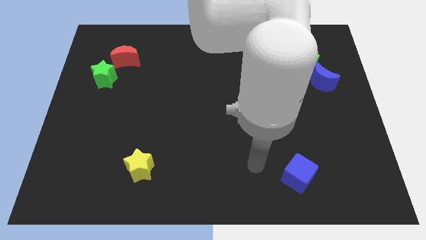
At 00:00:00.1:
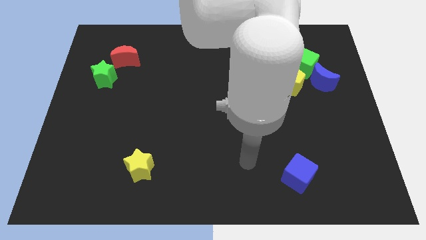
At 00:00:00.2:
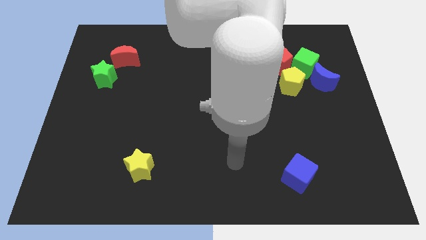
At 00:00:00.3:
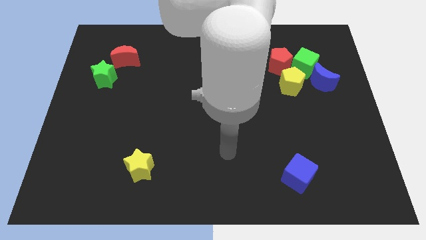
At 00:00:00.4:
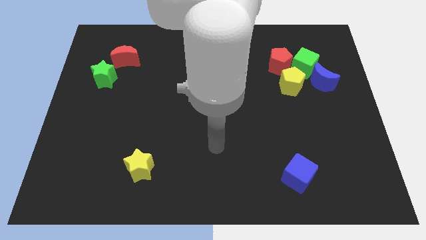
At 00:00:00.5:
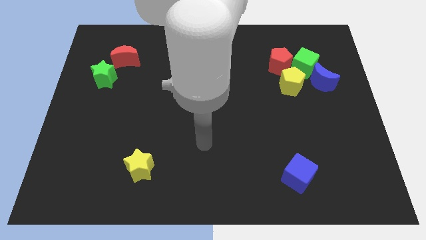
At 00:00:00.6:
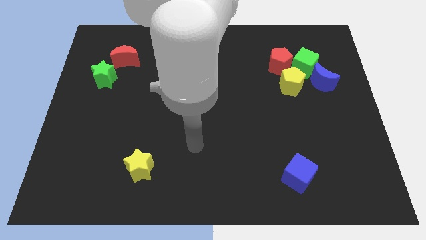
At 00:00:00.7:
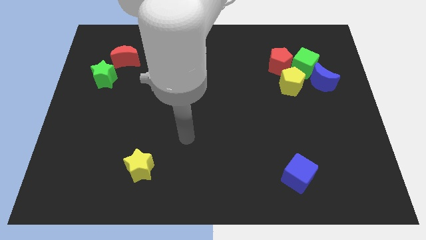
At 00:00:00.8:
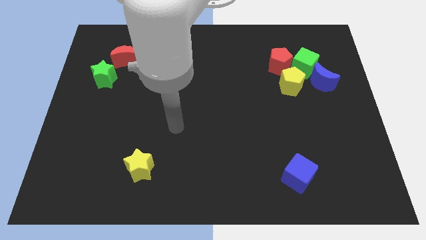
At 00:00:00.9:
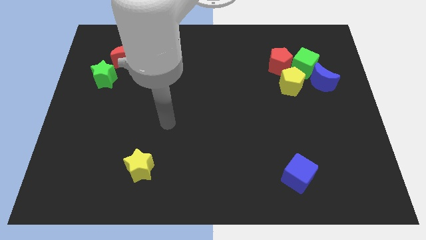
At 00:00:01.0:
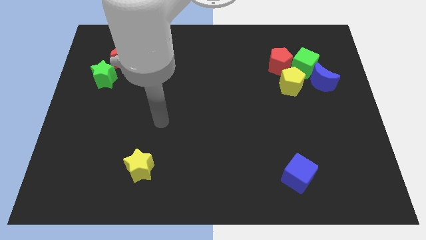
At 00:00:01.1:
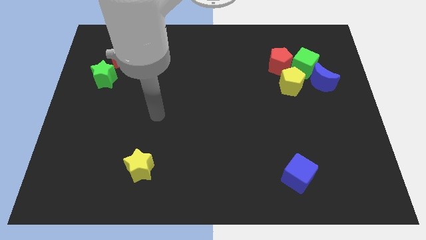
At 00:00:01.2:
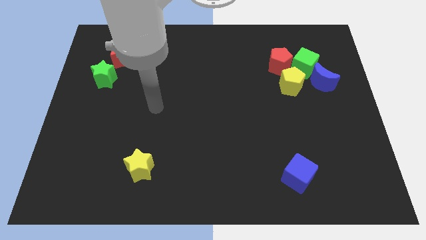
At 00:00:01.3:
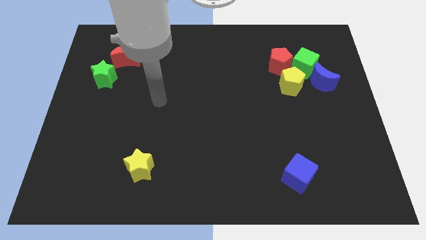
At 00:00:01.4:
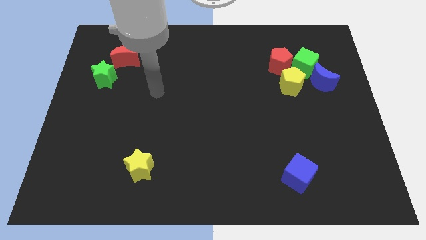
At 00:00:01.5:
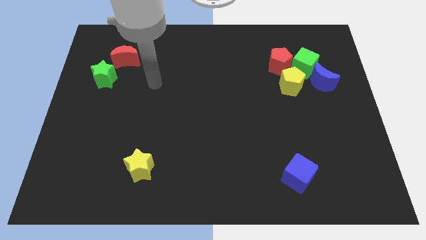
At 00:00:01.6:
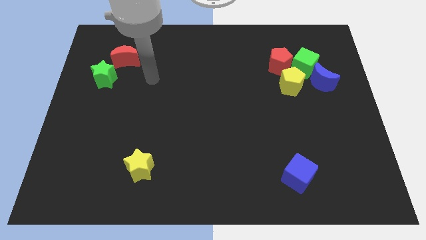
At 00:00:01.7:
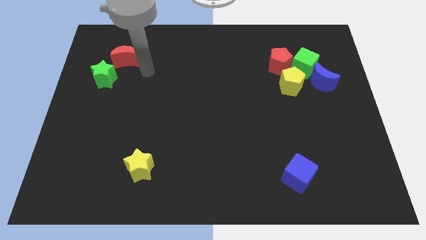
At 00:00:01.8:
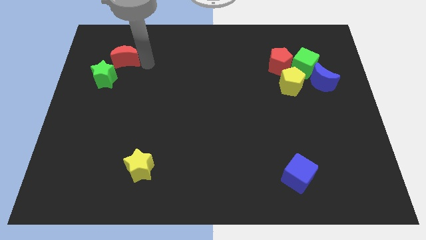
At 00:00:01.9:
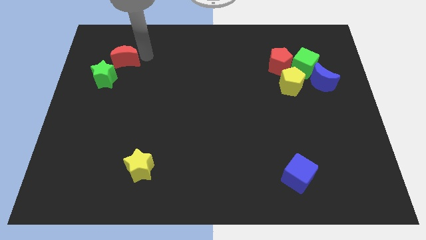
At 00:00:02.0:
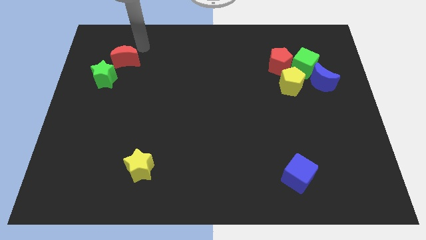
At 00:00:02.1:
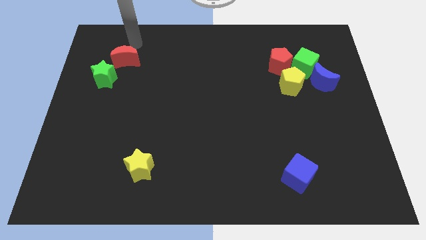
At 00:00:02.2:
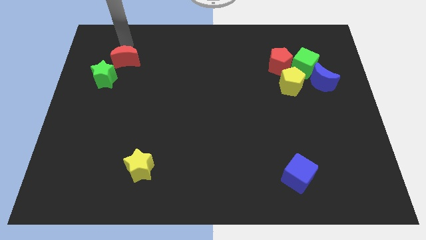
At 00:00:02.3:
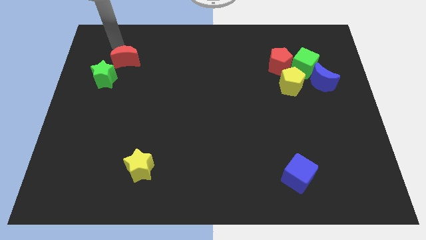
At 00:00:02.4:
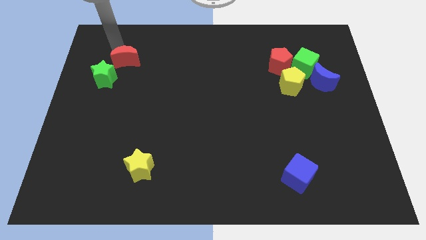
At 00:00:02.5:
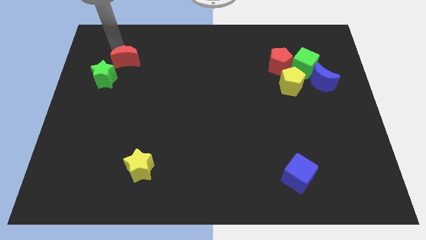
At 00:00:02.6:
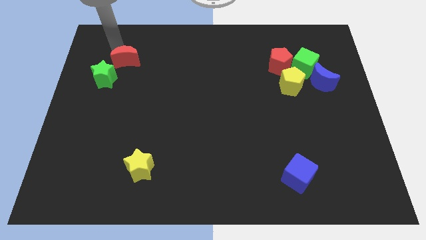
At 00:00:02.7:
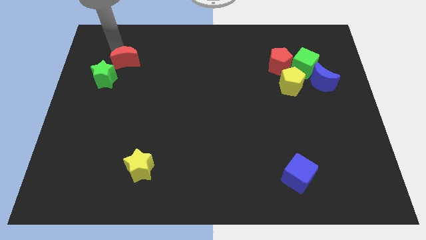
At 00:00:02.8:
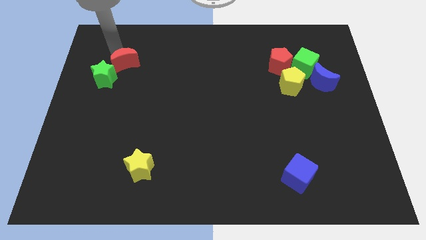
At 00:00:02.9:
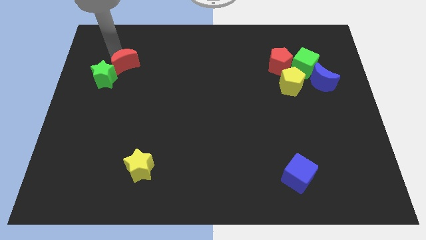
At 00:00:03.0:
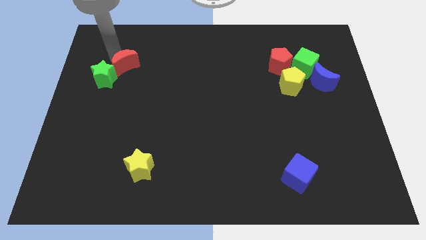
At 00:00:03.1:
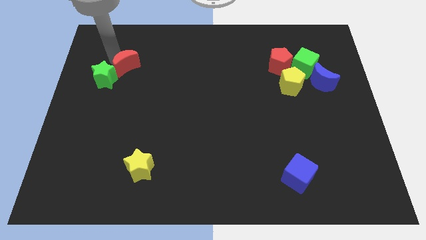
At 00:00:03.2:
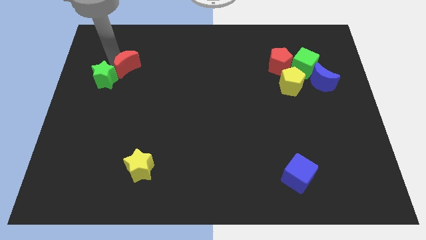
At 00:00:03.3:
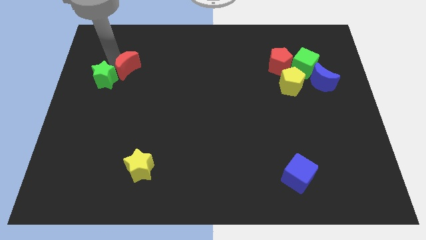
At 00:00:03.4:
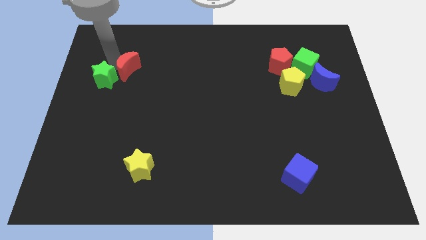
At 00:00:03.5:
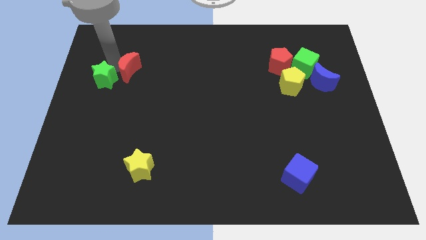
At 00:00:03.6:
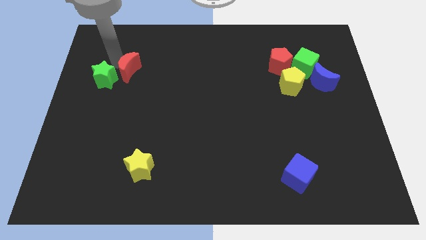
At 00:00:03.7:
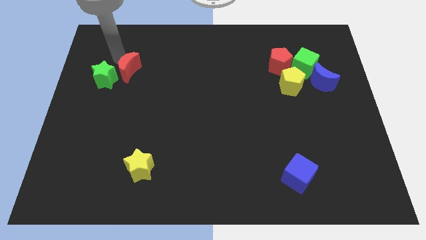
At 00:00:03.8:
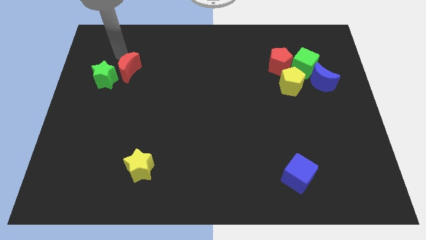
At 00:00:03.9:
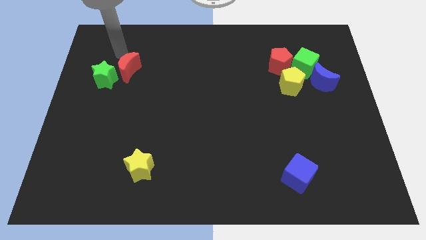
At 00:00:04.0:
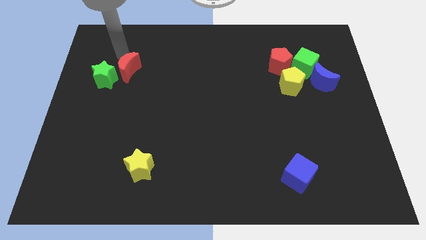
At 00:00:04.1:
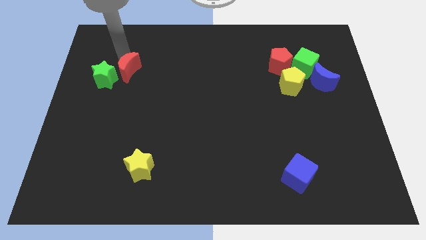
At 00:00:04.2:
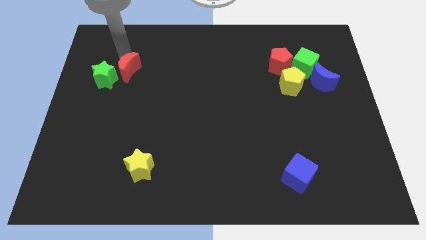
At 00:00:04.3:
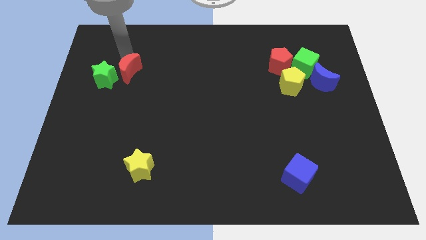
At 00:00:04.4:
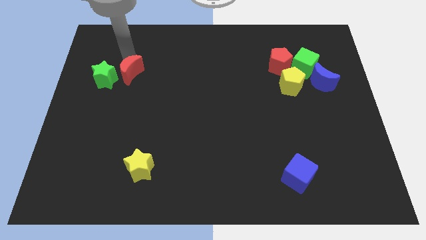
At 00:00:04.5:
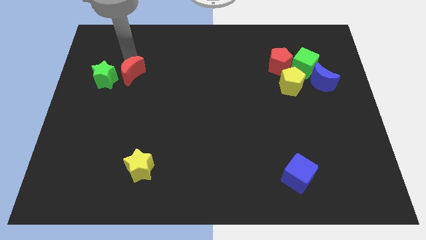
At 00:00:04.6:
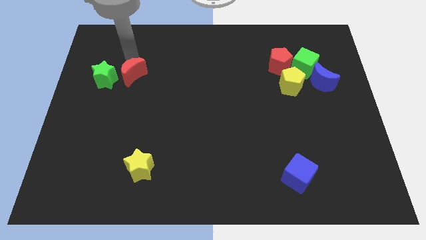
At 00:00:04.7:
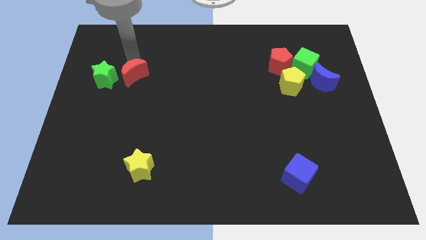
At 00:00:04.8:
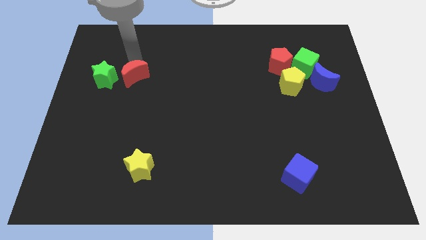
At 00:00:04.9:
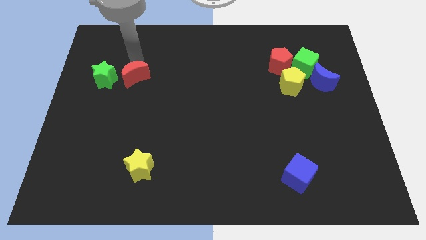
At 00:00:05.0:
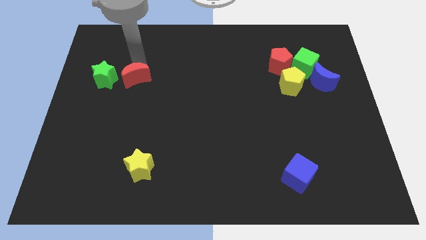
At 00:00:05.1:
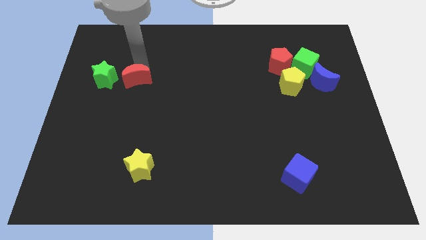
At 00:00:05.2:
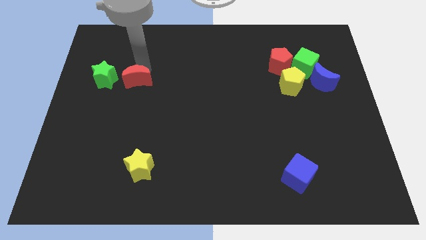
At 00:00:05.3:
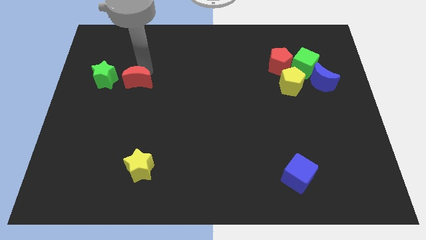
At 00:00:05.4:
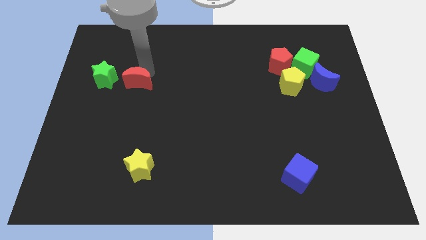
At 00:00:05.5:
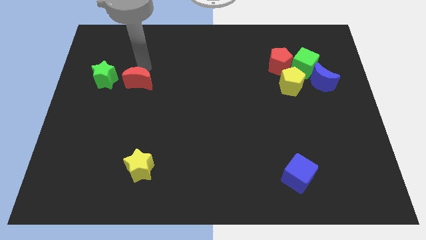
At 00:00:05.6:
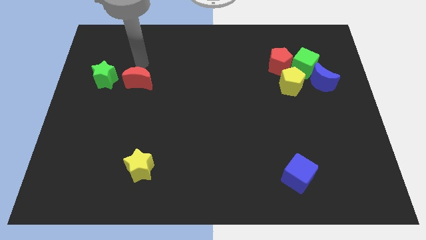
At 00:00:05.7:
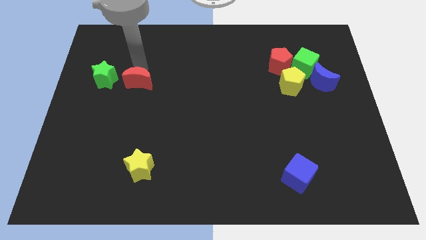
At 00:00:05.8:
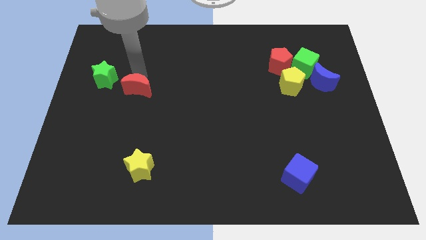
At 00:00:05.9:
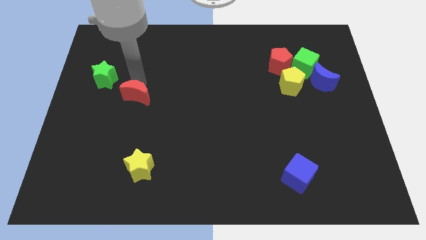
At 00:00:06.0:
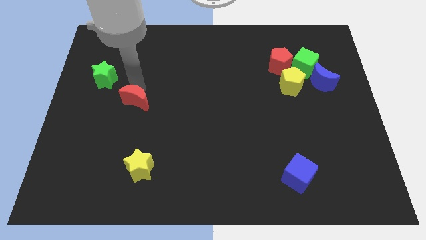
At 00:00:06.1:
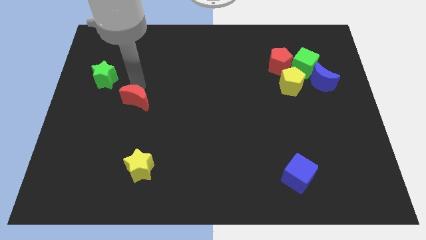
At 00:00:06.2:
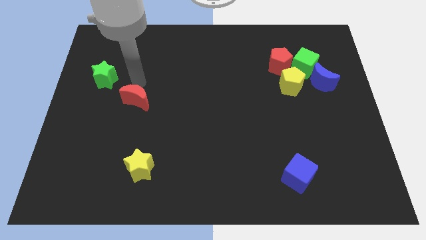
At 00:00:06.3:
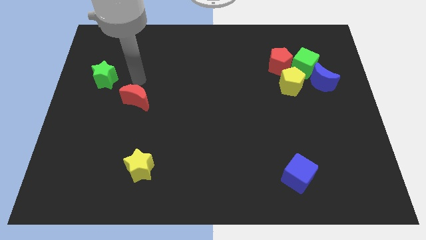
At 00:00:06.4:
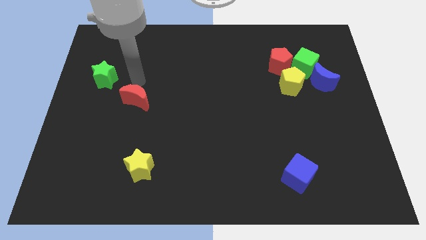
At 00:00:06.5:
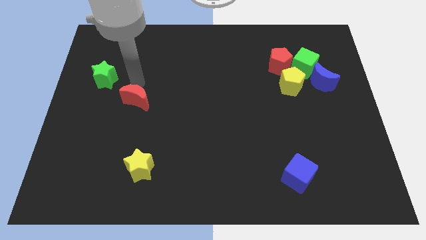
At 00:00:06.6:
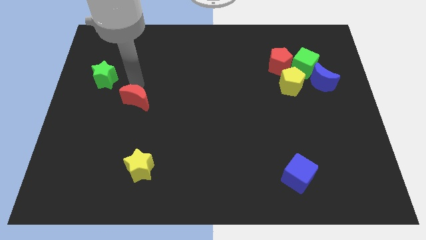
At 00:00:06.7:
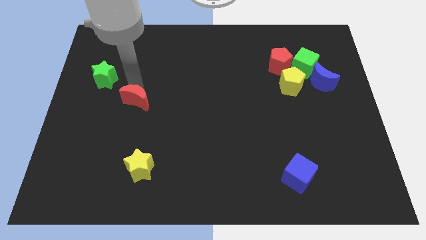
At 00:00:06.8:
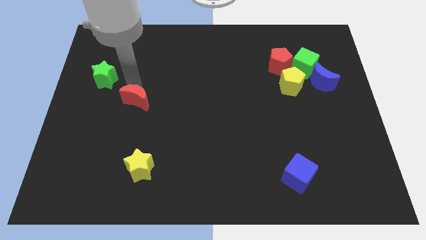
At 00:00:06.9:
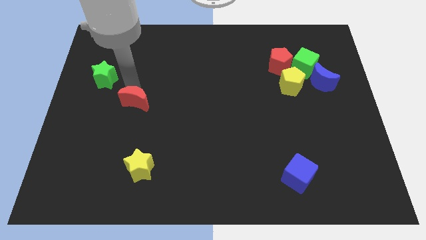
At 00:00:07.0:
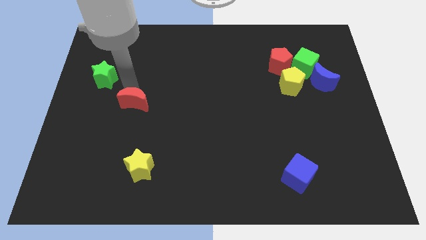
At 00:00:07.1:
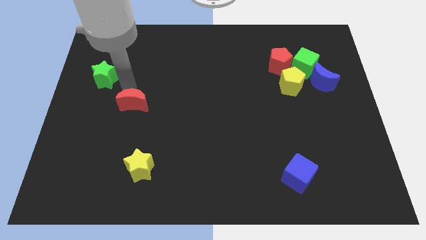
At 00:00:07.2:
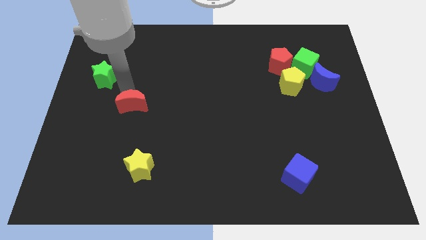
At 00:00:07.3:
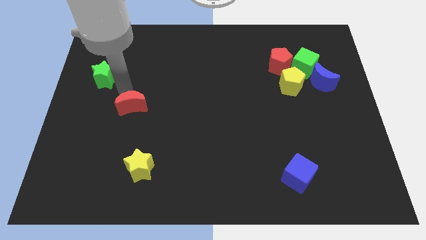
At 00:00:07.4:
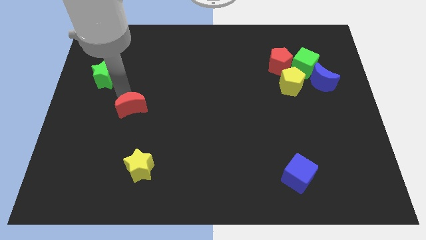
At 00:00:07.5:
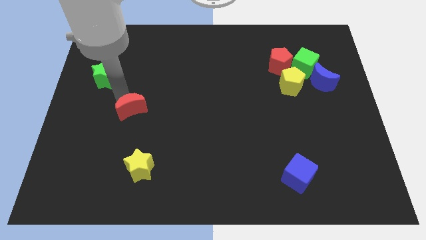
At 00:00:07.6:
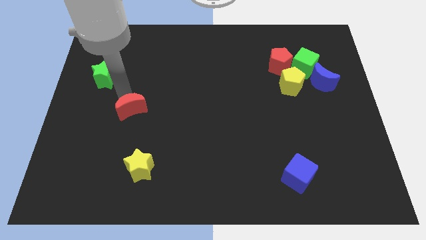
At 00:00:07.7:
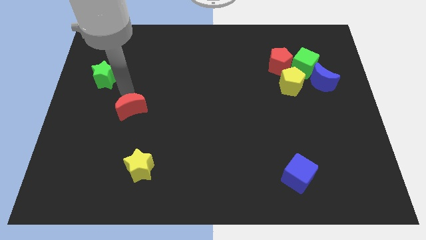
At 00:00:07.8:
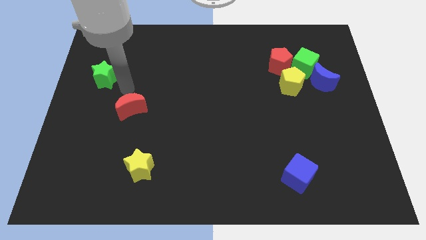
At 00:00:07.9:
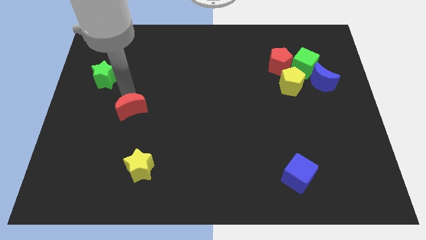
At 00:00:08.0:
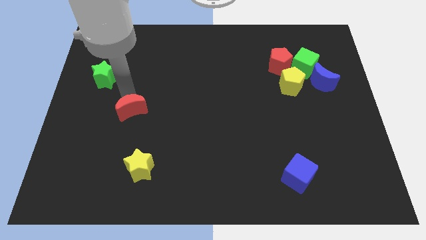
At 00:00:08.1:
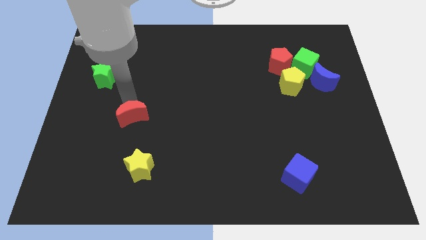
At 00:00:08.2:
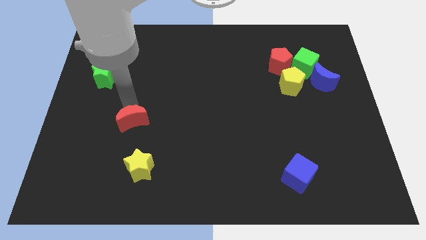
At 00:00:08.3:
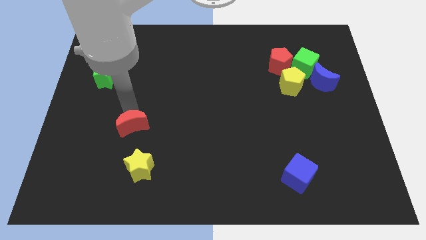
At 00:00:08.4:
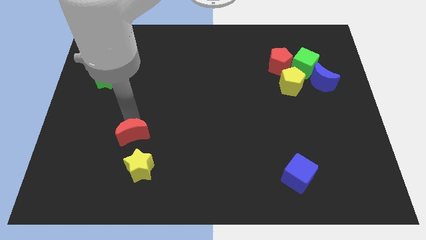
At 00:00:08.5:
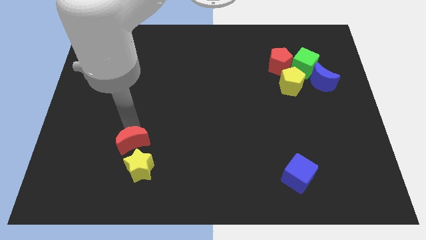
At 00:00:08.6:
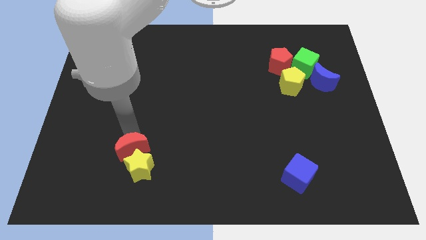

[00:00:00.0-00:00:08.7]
put the red moon close to the yellow star
